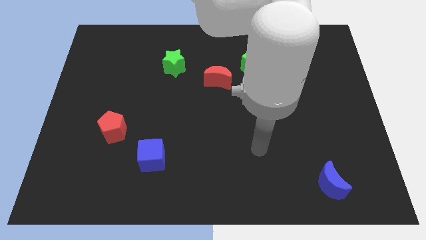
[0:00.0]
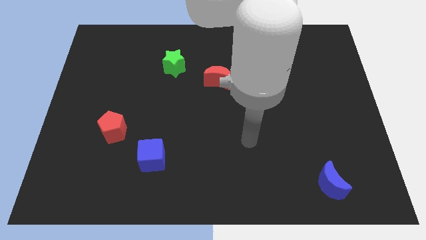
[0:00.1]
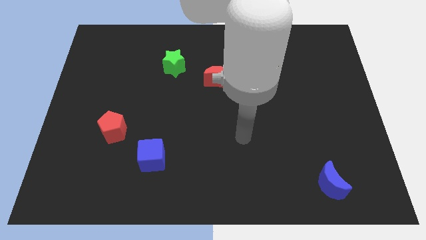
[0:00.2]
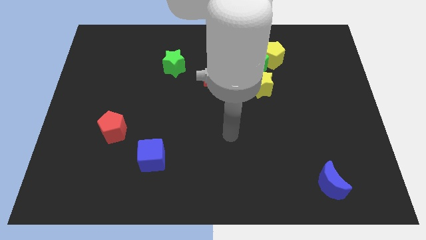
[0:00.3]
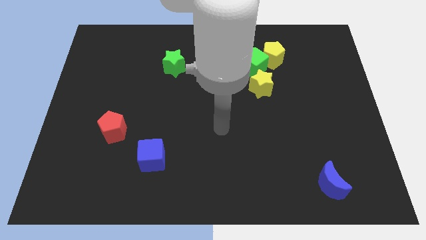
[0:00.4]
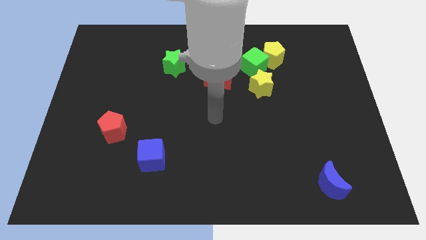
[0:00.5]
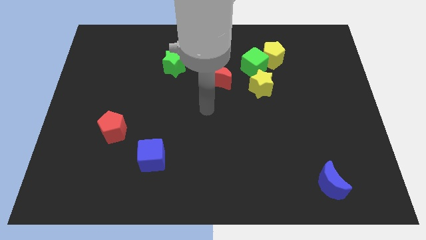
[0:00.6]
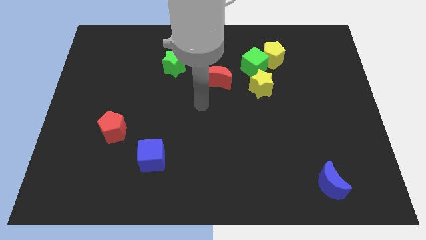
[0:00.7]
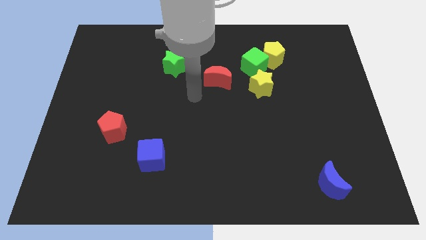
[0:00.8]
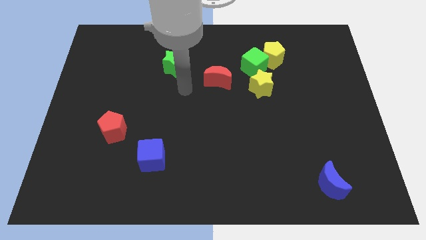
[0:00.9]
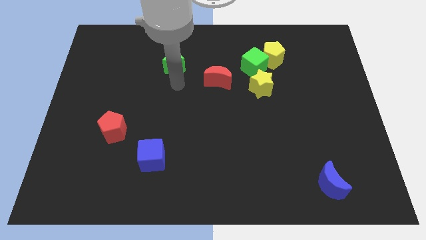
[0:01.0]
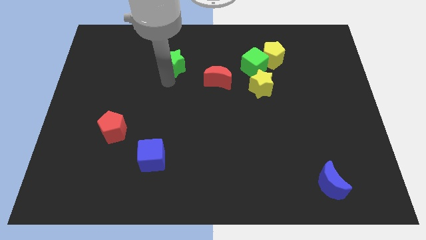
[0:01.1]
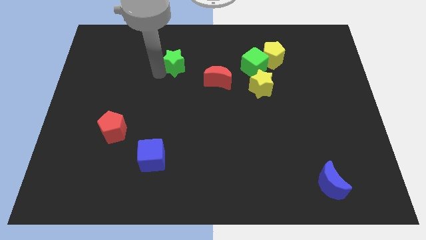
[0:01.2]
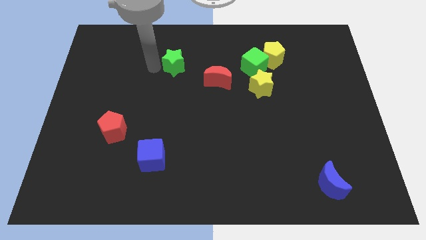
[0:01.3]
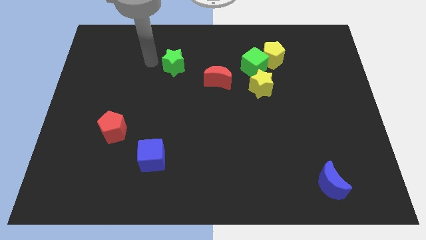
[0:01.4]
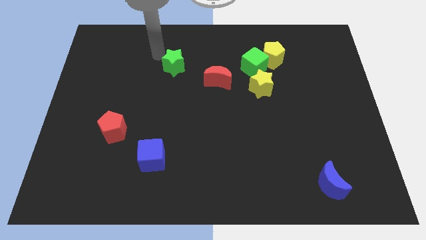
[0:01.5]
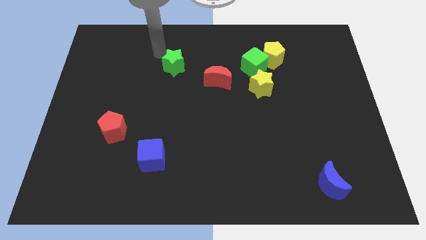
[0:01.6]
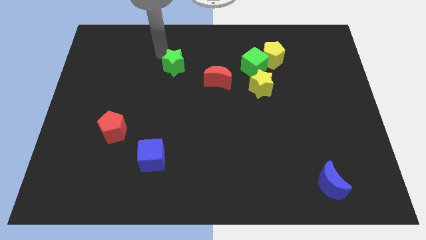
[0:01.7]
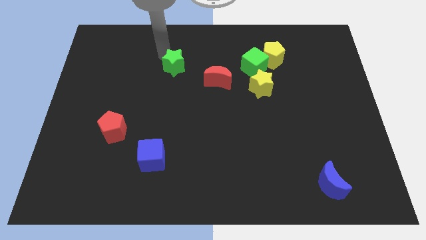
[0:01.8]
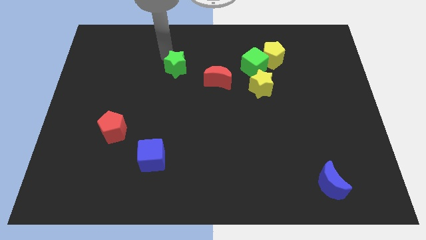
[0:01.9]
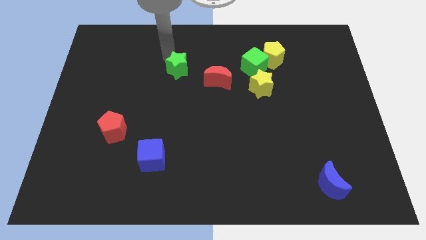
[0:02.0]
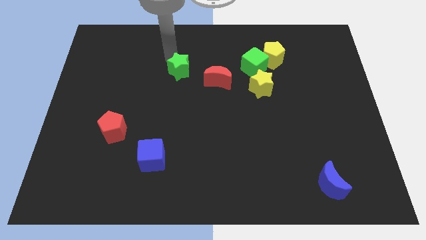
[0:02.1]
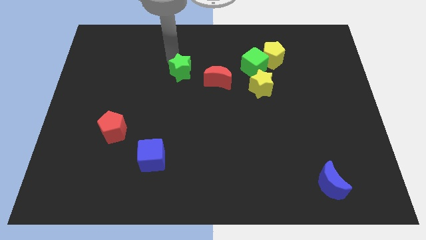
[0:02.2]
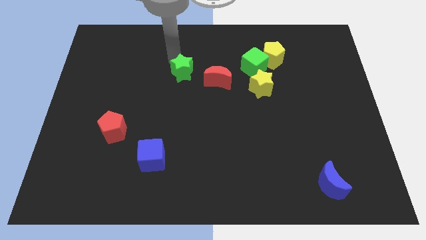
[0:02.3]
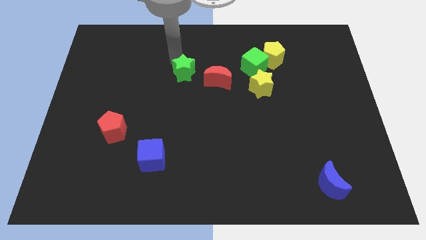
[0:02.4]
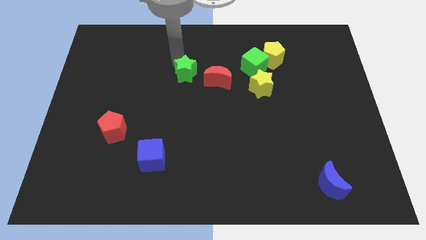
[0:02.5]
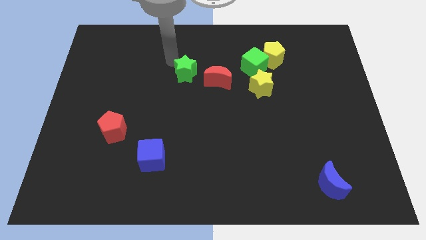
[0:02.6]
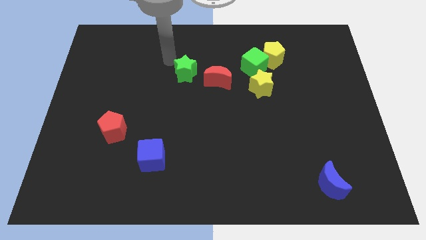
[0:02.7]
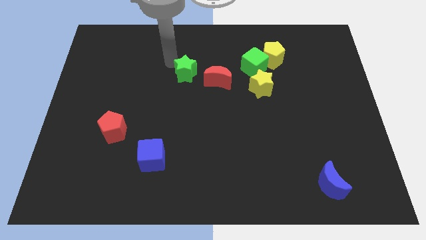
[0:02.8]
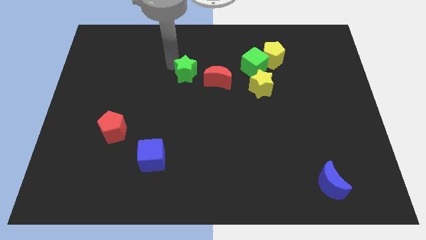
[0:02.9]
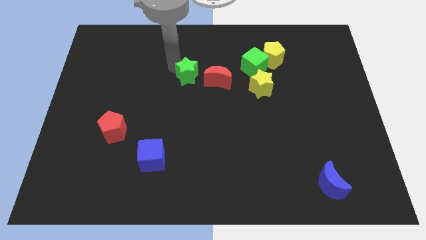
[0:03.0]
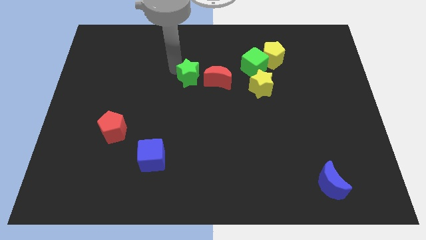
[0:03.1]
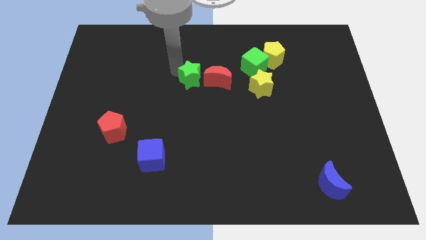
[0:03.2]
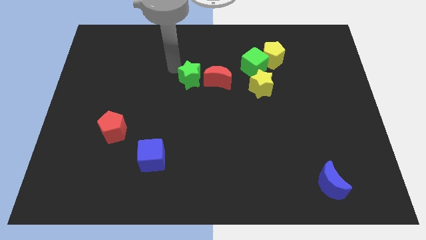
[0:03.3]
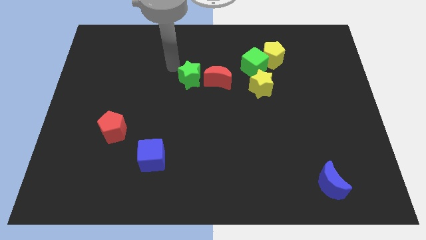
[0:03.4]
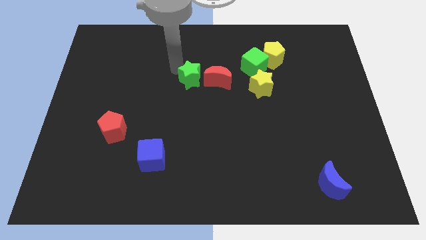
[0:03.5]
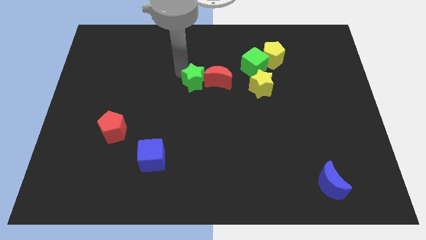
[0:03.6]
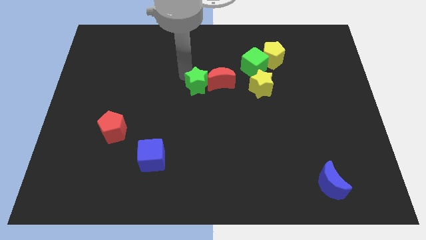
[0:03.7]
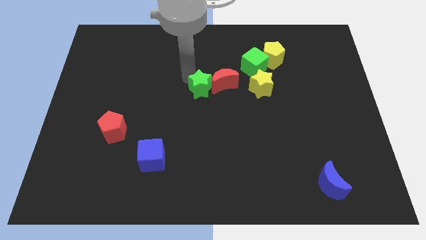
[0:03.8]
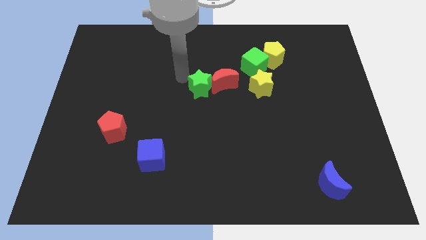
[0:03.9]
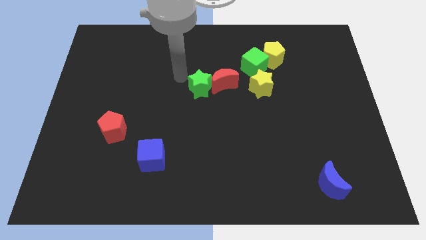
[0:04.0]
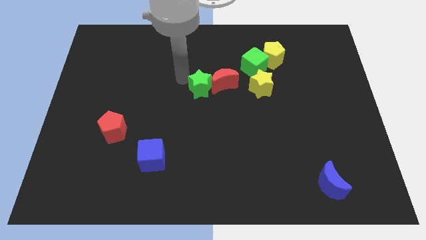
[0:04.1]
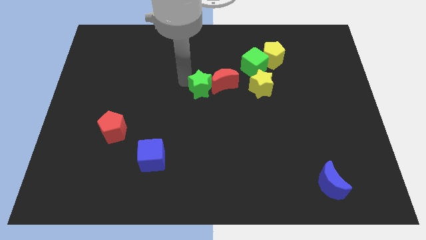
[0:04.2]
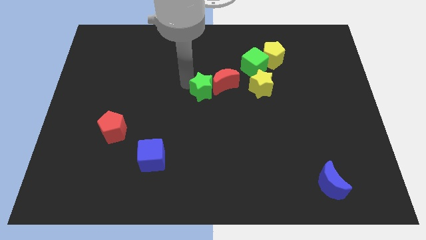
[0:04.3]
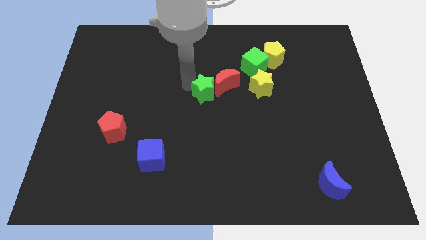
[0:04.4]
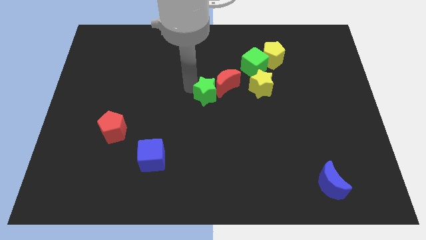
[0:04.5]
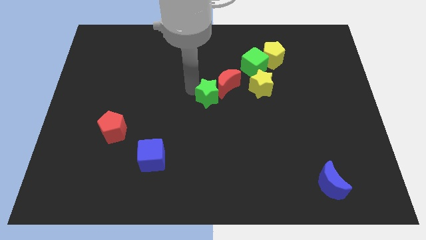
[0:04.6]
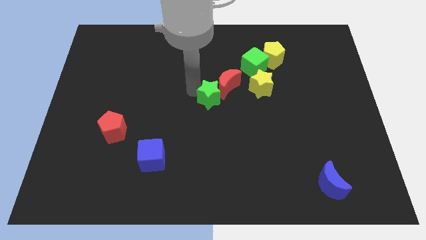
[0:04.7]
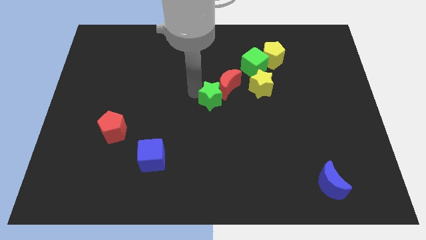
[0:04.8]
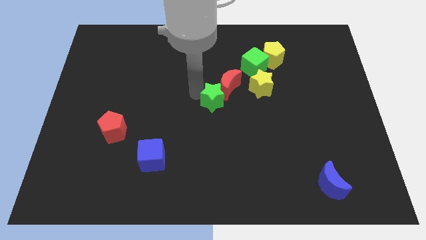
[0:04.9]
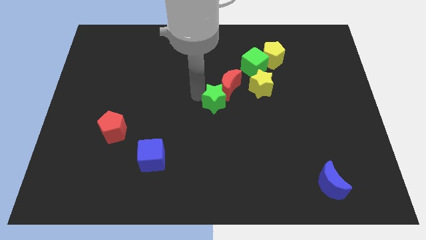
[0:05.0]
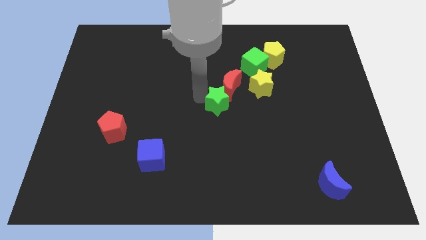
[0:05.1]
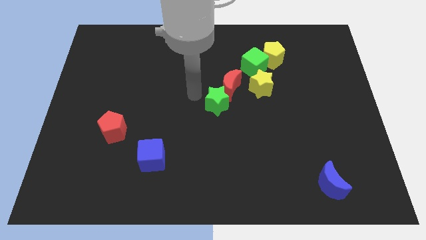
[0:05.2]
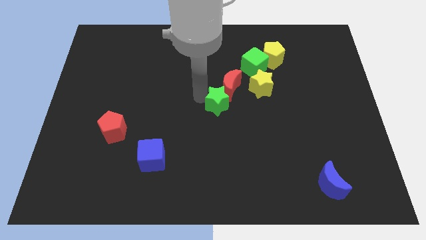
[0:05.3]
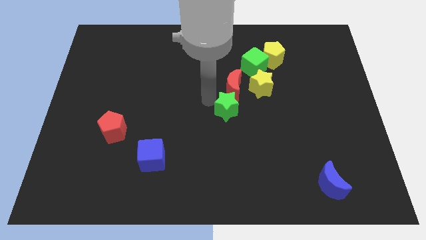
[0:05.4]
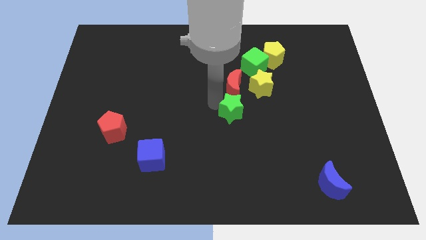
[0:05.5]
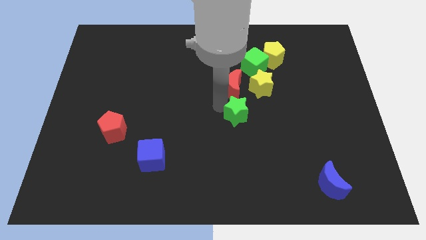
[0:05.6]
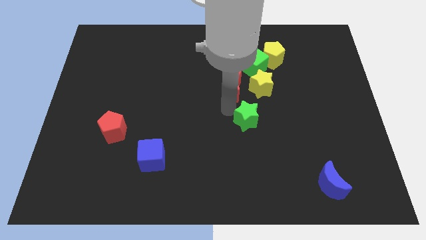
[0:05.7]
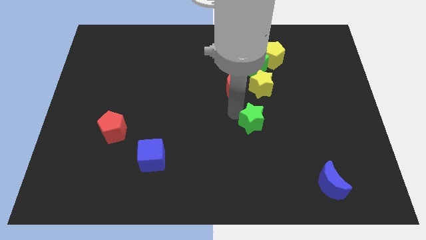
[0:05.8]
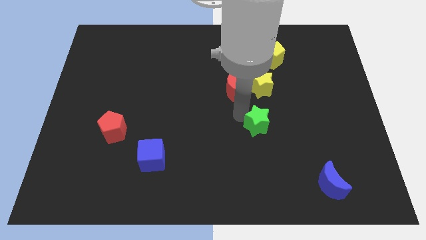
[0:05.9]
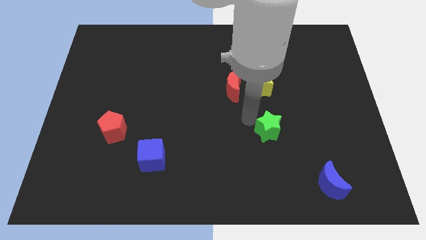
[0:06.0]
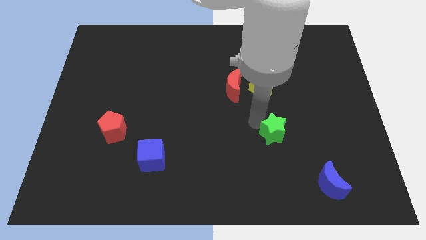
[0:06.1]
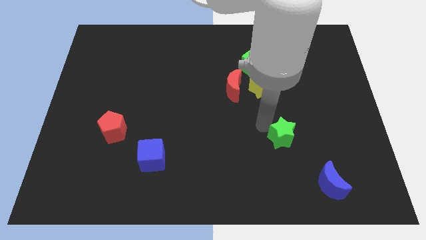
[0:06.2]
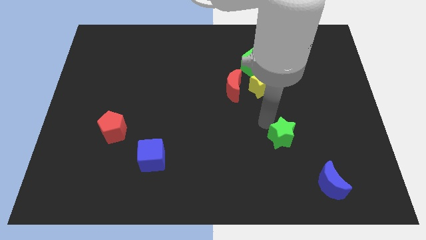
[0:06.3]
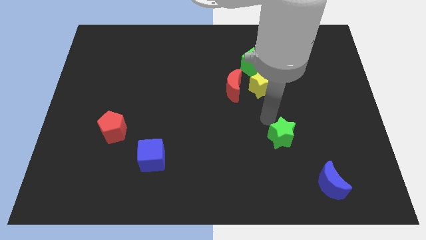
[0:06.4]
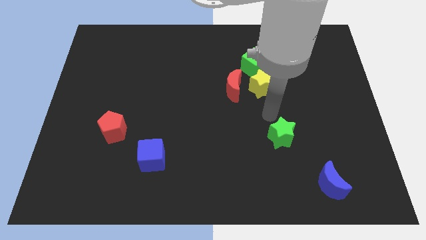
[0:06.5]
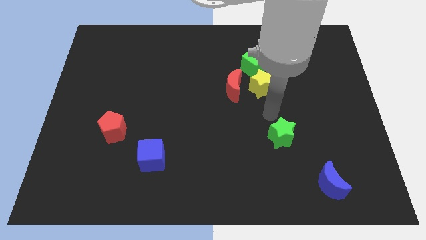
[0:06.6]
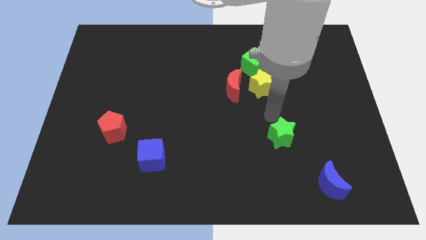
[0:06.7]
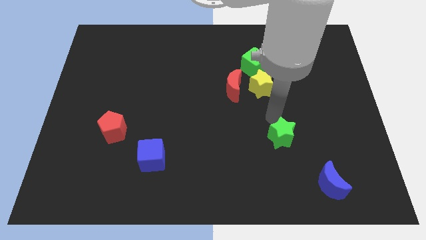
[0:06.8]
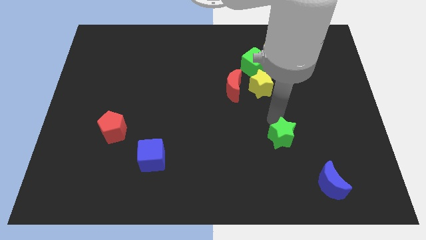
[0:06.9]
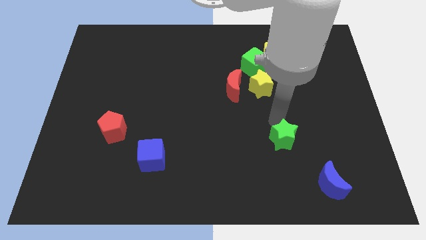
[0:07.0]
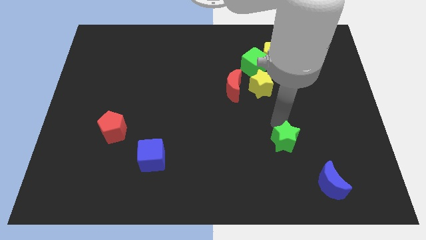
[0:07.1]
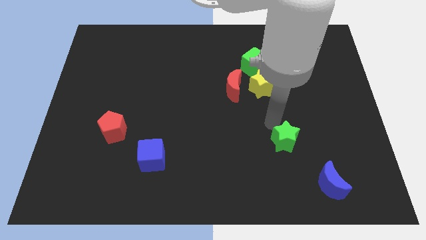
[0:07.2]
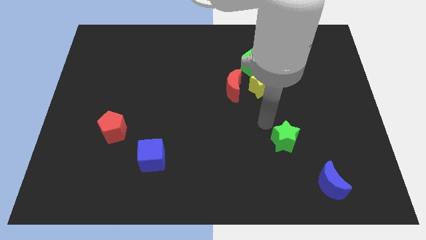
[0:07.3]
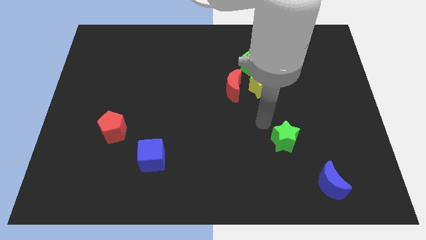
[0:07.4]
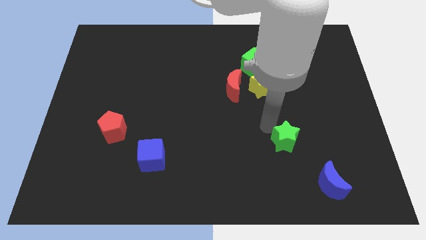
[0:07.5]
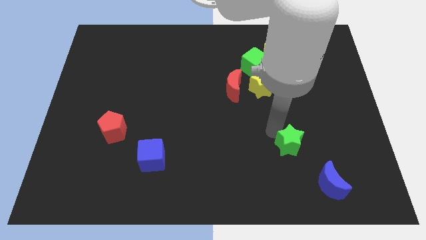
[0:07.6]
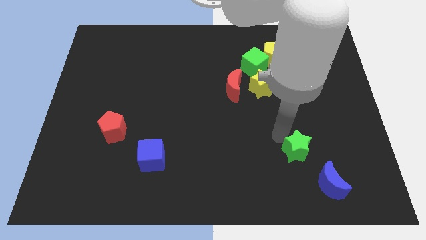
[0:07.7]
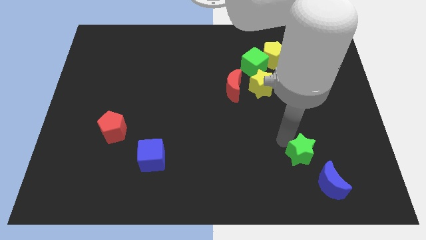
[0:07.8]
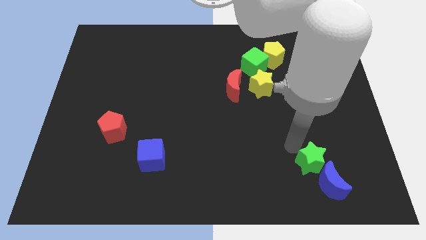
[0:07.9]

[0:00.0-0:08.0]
move the green star towards the blue moon
